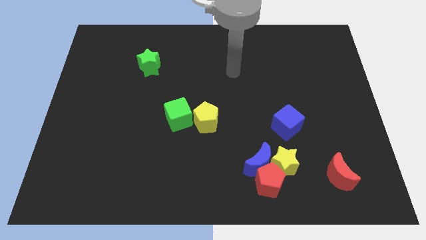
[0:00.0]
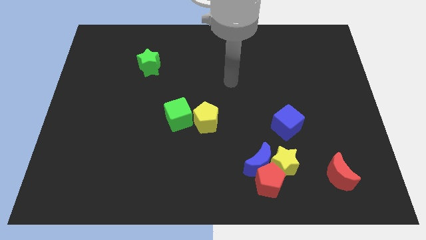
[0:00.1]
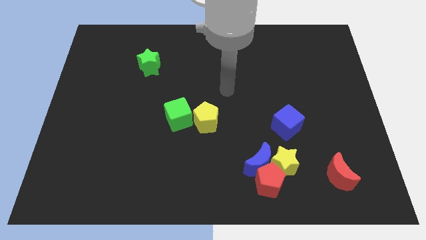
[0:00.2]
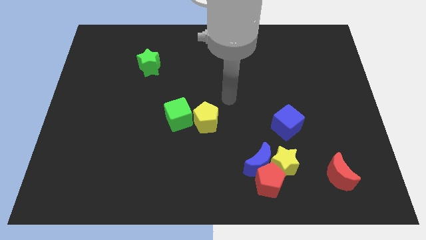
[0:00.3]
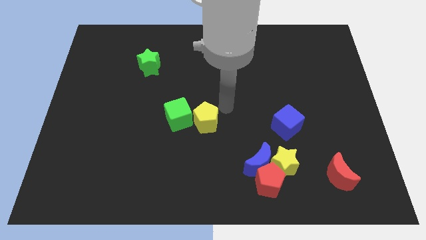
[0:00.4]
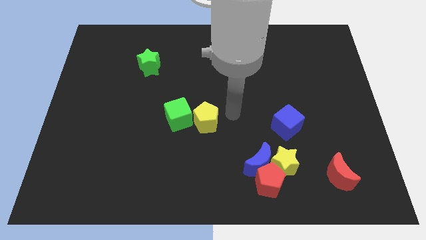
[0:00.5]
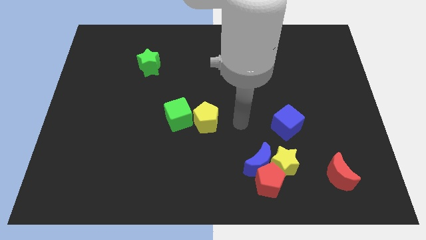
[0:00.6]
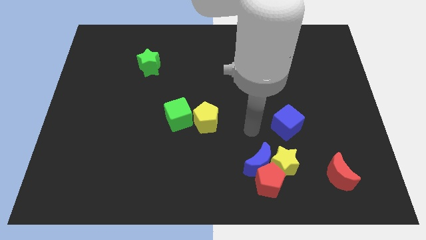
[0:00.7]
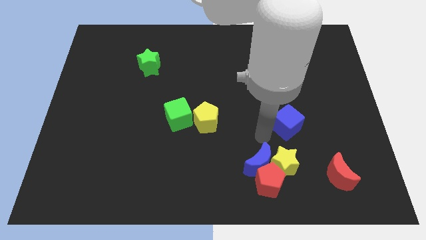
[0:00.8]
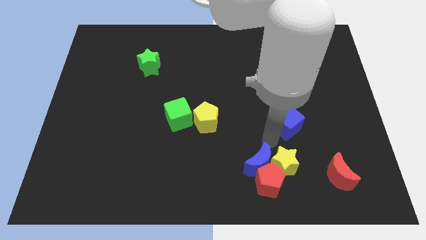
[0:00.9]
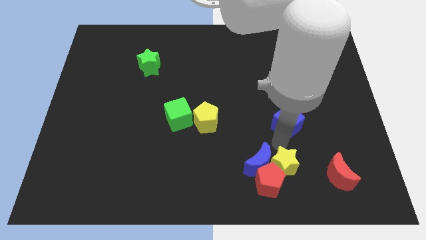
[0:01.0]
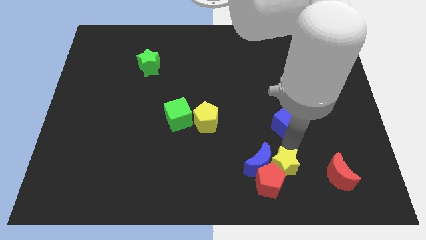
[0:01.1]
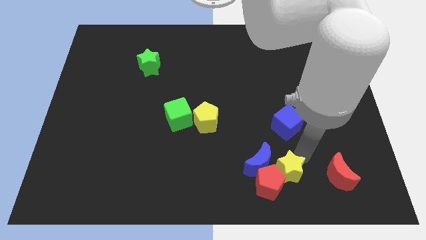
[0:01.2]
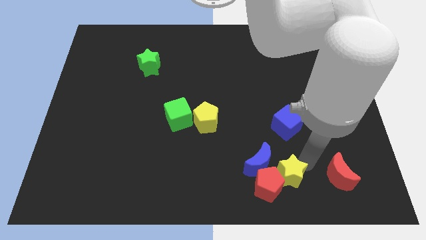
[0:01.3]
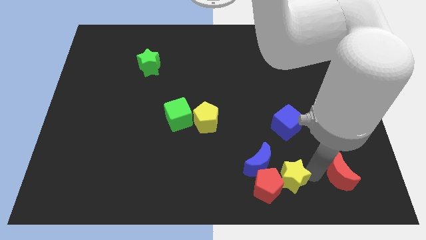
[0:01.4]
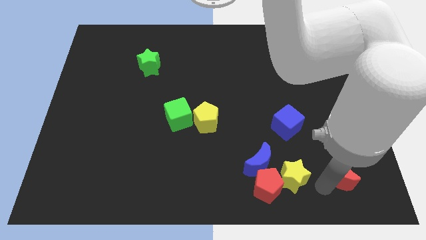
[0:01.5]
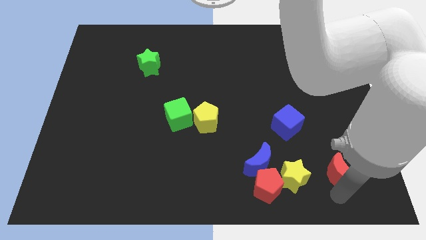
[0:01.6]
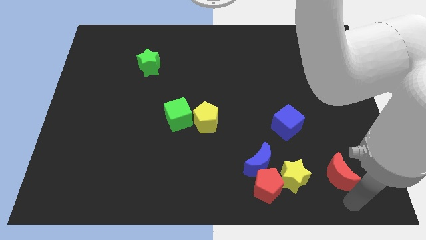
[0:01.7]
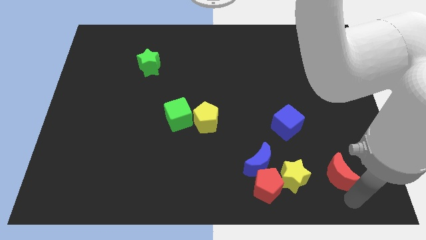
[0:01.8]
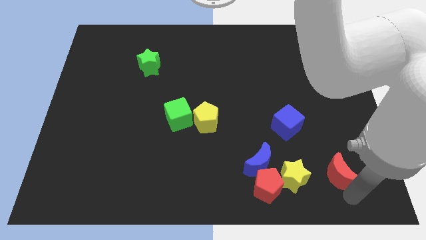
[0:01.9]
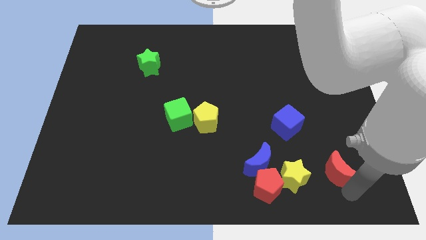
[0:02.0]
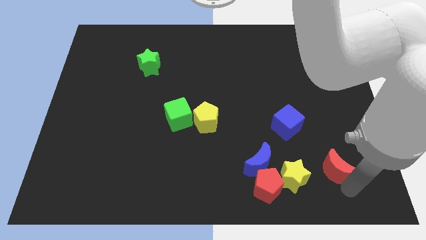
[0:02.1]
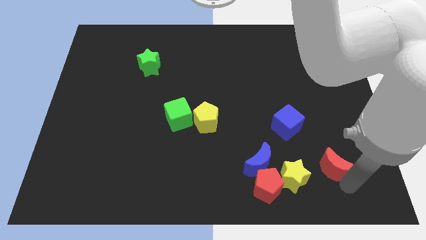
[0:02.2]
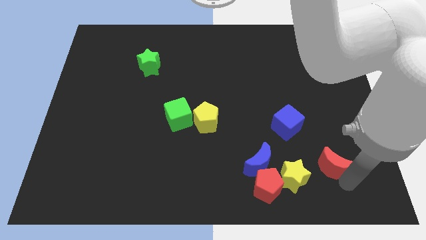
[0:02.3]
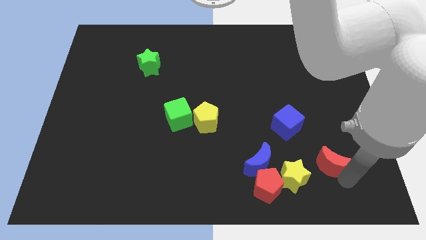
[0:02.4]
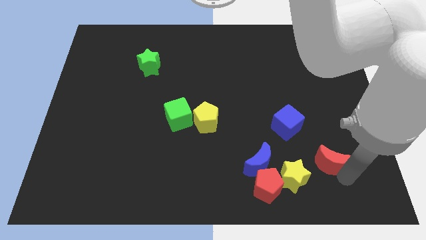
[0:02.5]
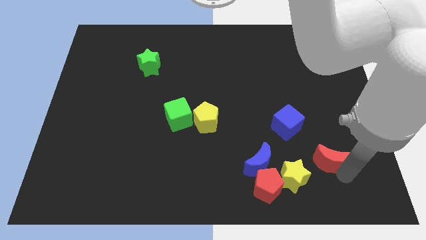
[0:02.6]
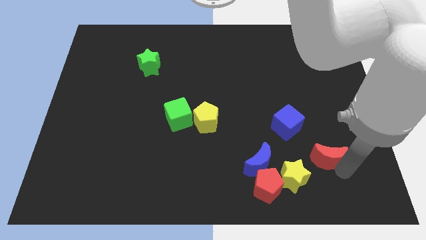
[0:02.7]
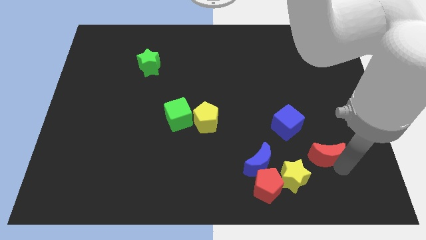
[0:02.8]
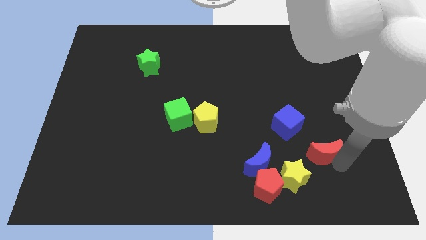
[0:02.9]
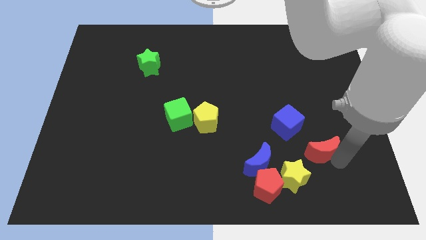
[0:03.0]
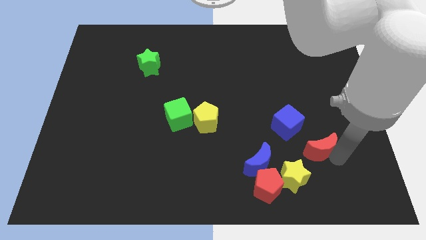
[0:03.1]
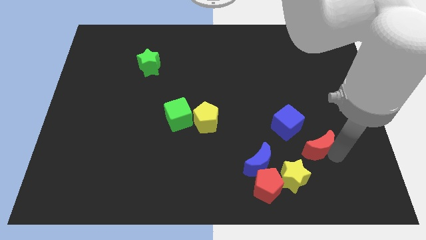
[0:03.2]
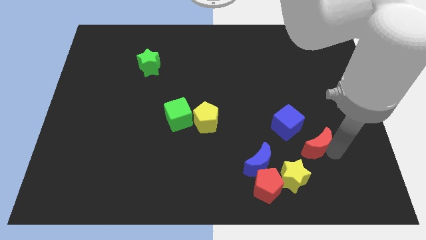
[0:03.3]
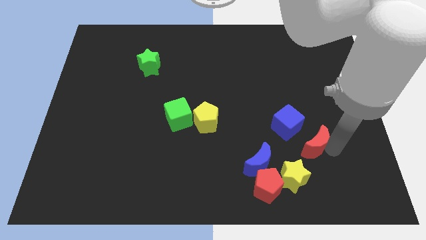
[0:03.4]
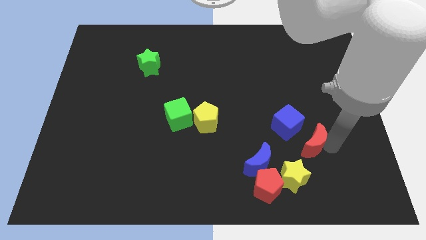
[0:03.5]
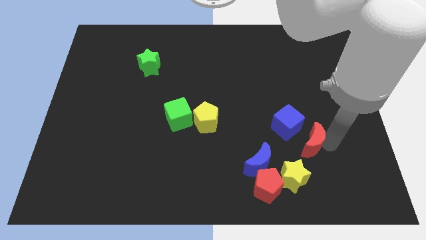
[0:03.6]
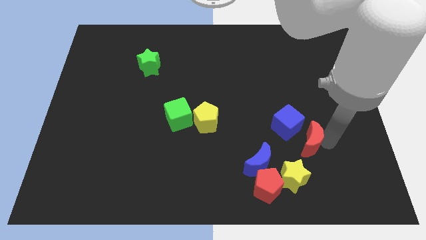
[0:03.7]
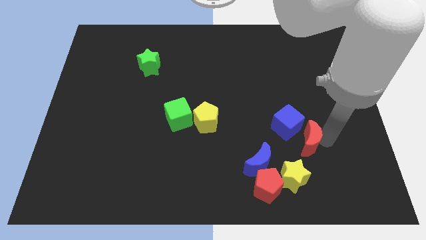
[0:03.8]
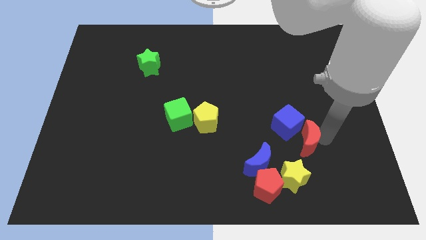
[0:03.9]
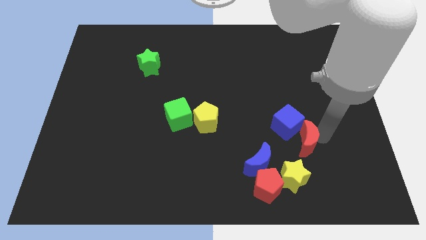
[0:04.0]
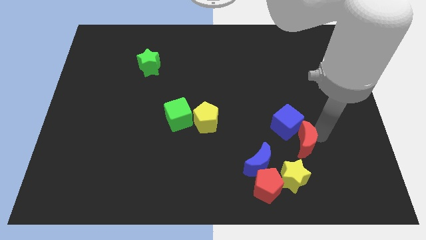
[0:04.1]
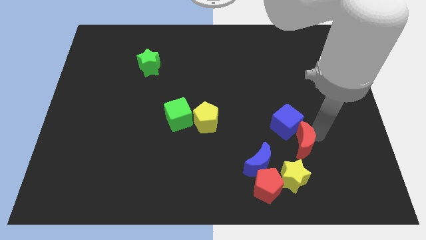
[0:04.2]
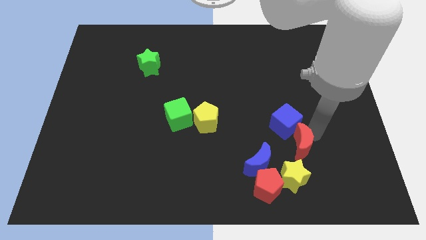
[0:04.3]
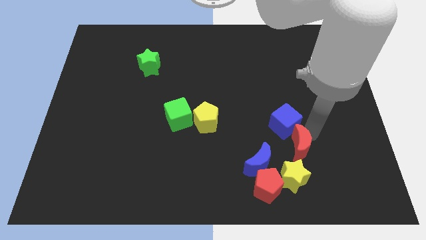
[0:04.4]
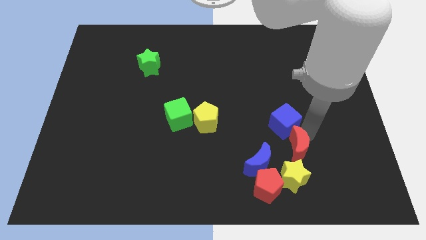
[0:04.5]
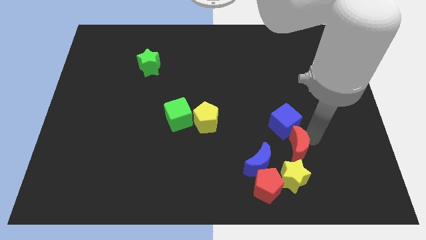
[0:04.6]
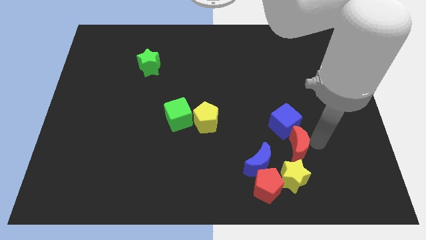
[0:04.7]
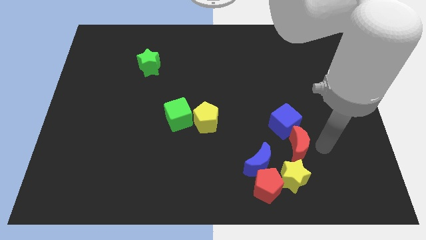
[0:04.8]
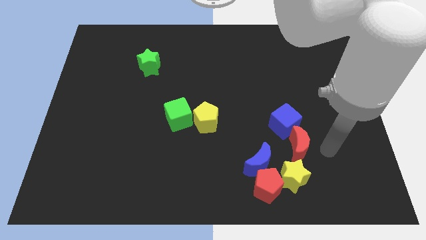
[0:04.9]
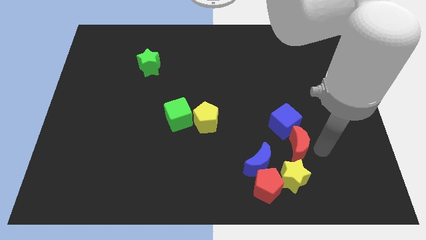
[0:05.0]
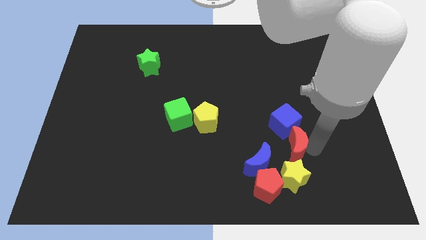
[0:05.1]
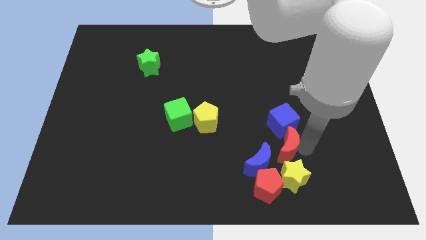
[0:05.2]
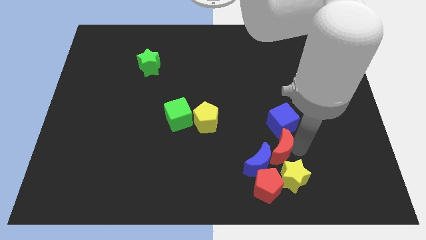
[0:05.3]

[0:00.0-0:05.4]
move the red moon next to the blue moon

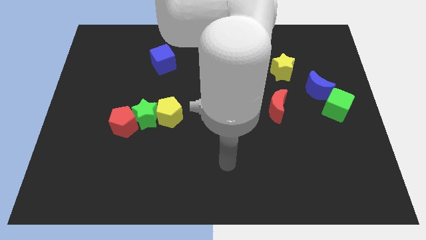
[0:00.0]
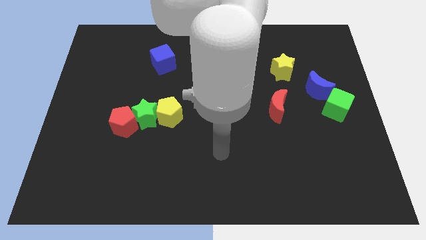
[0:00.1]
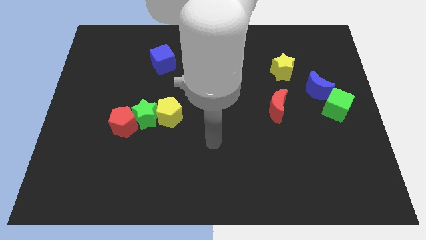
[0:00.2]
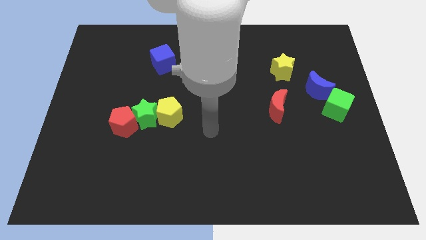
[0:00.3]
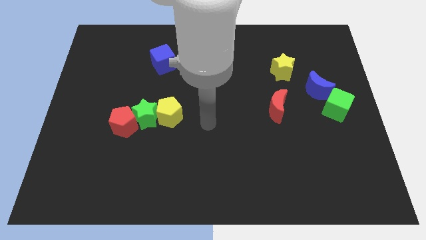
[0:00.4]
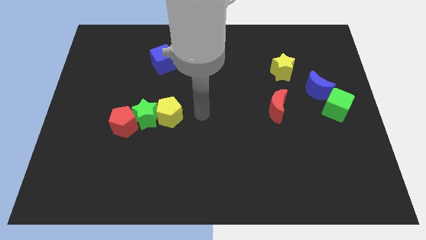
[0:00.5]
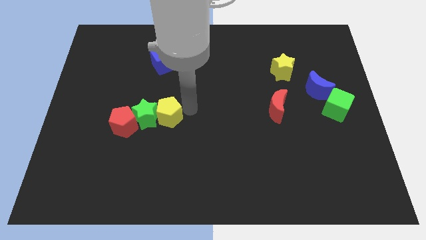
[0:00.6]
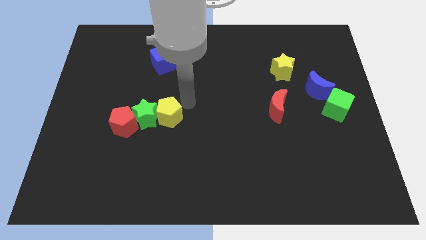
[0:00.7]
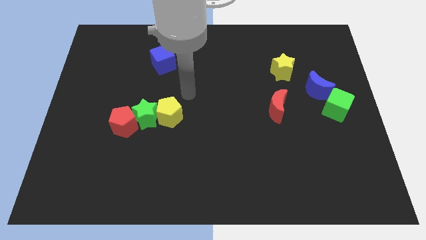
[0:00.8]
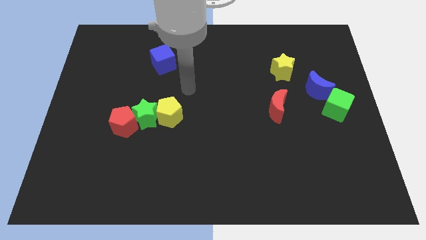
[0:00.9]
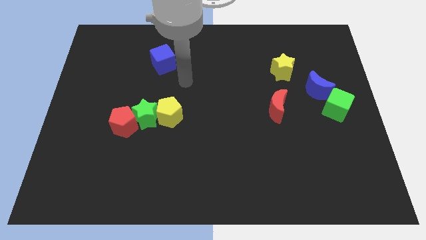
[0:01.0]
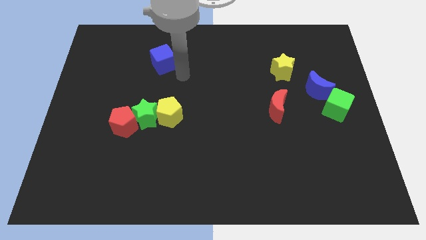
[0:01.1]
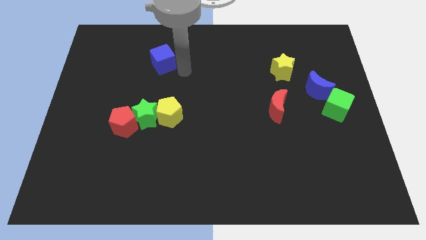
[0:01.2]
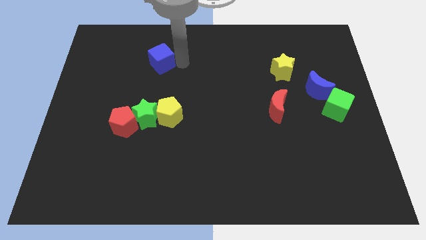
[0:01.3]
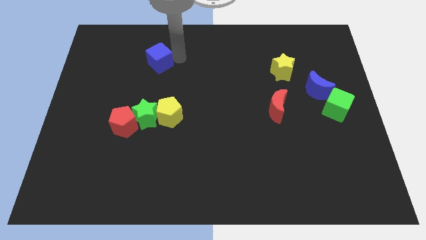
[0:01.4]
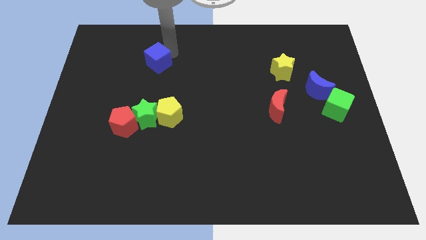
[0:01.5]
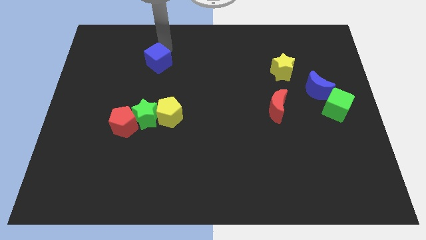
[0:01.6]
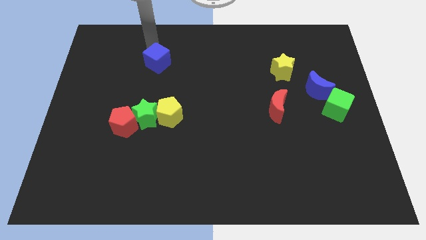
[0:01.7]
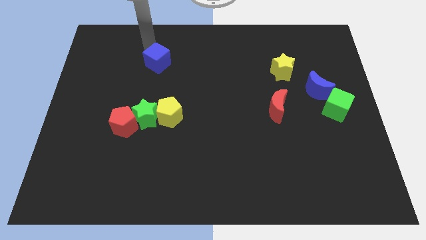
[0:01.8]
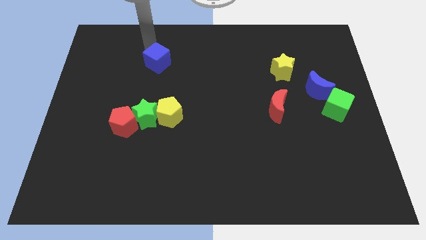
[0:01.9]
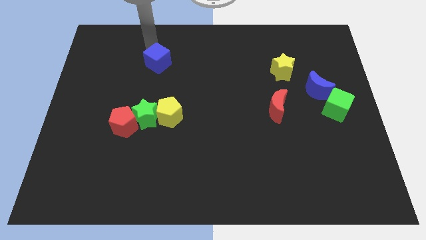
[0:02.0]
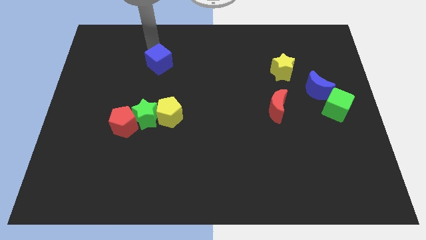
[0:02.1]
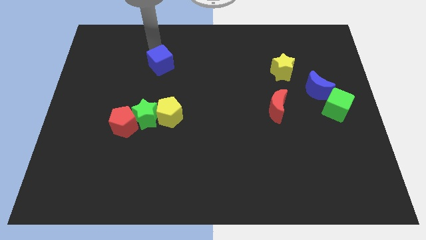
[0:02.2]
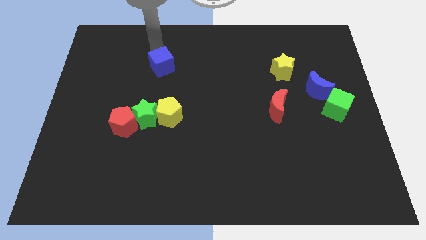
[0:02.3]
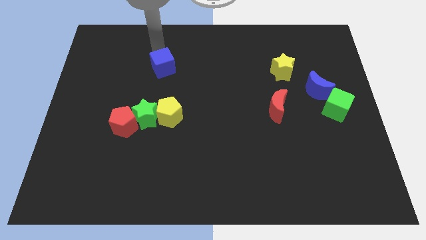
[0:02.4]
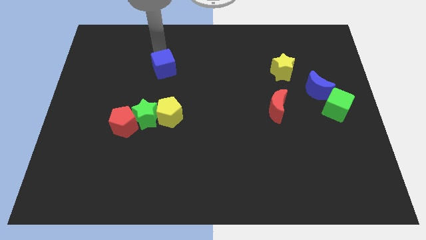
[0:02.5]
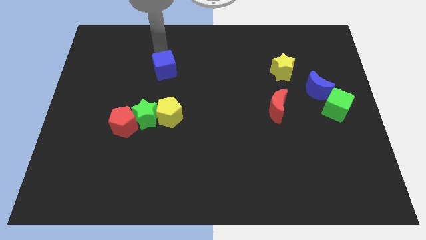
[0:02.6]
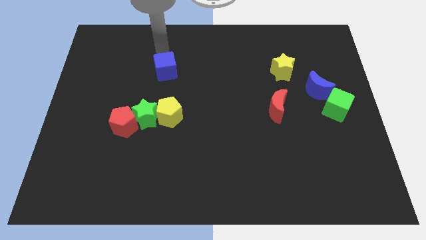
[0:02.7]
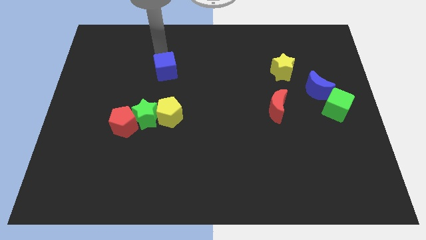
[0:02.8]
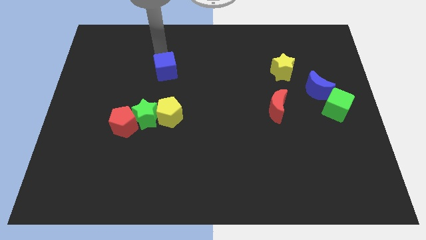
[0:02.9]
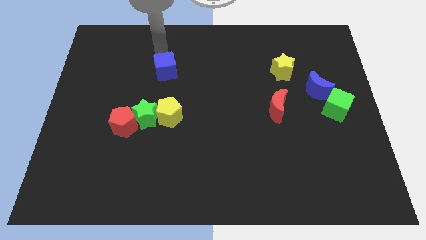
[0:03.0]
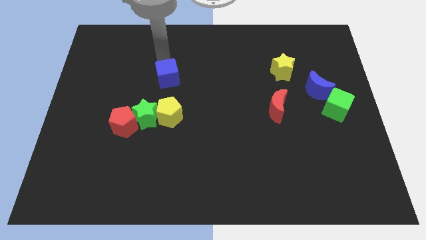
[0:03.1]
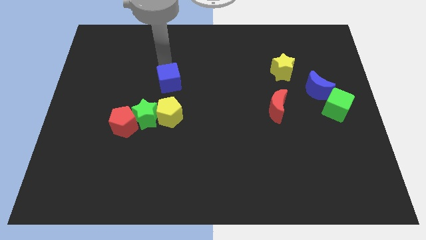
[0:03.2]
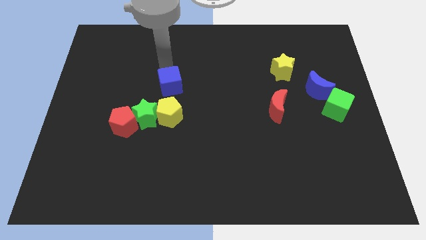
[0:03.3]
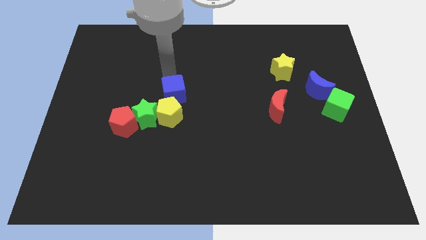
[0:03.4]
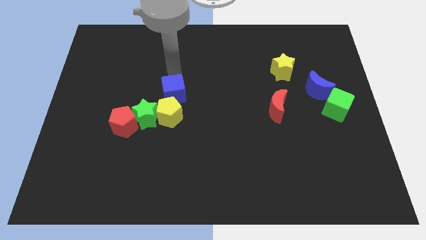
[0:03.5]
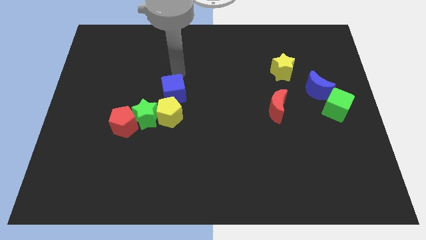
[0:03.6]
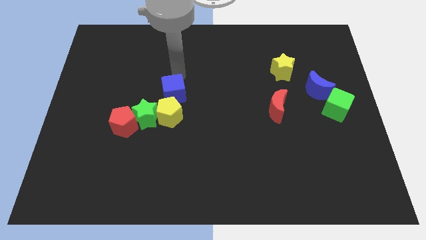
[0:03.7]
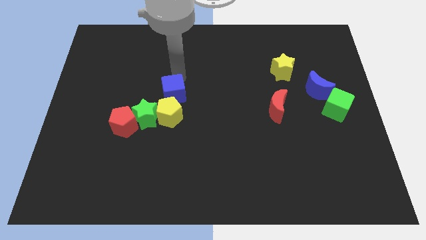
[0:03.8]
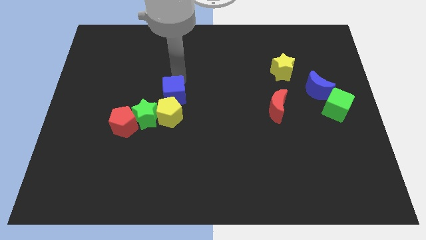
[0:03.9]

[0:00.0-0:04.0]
put the blue cube close to the yellow pentagon
